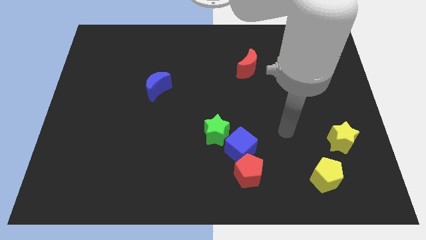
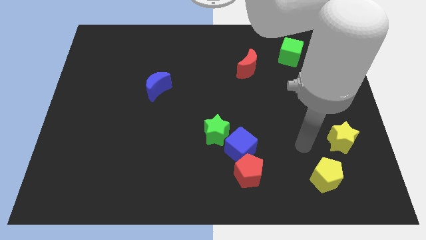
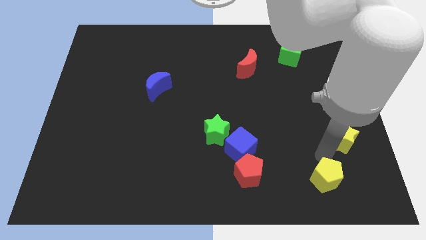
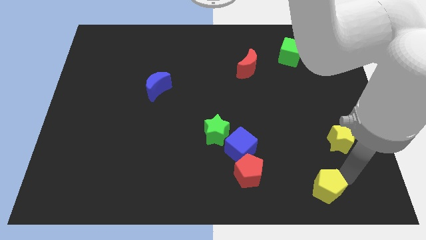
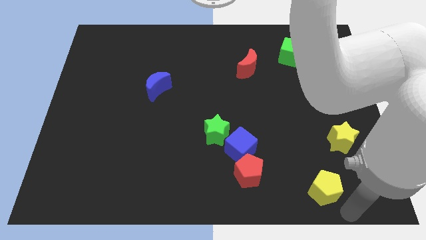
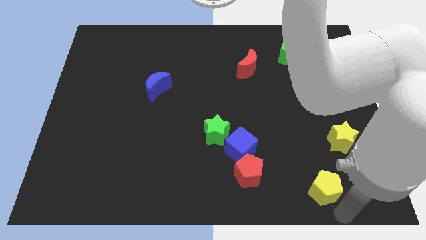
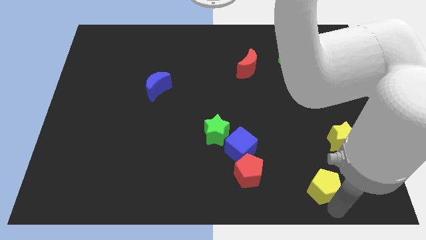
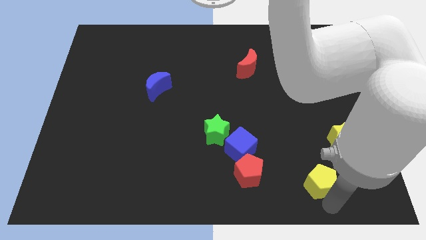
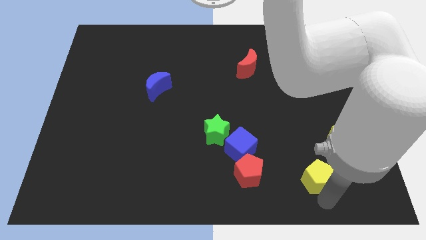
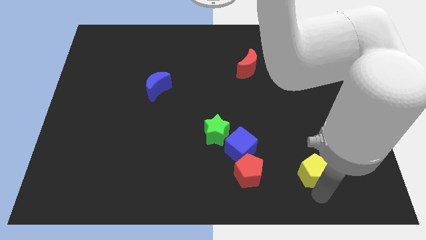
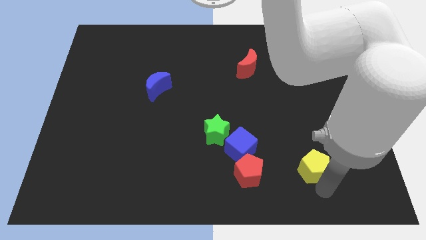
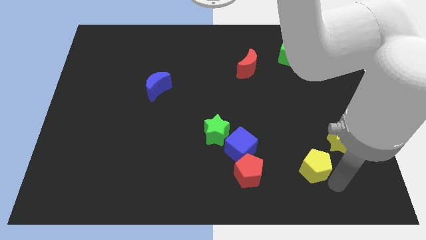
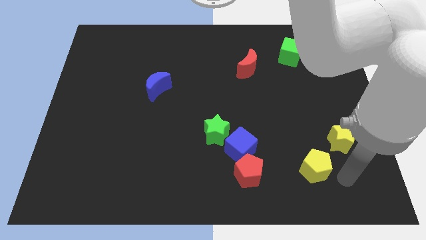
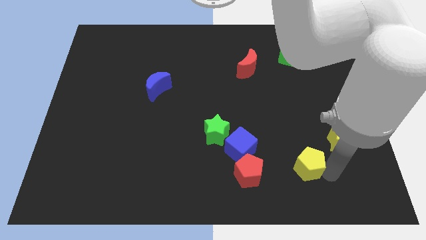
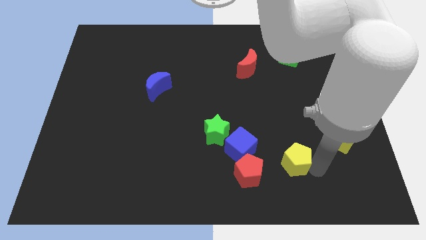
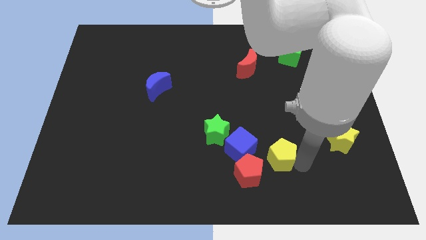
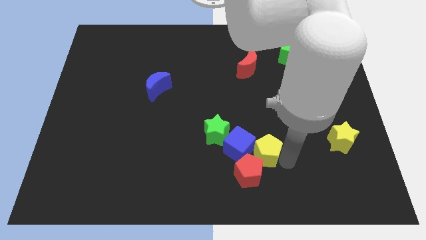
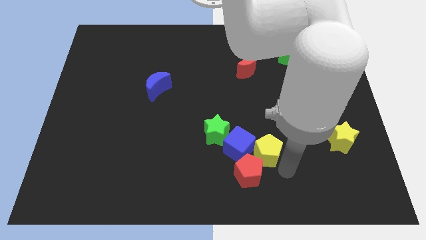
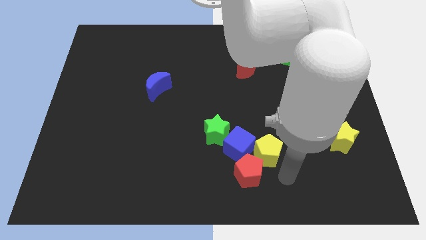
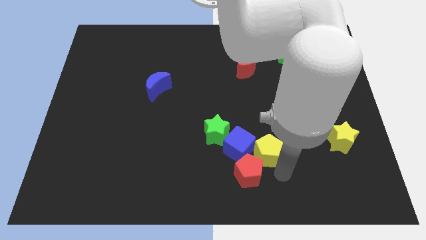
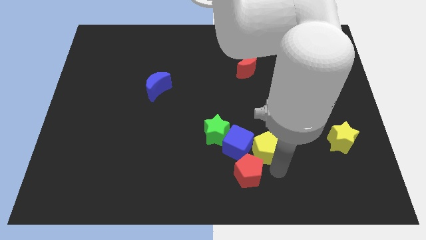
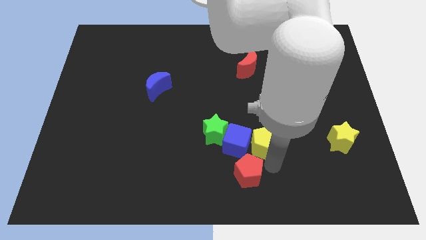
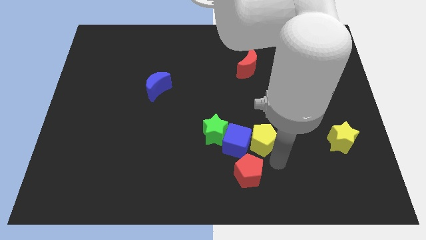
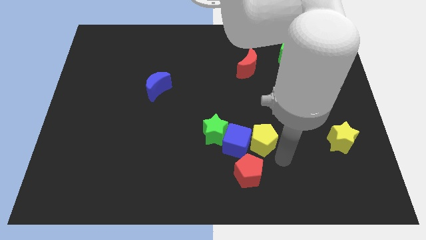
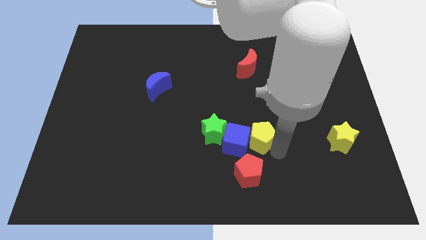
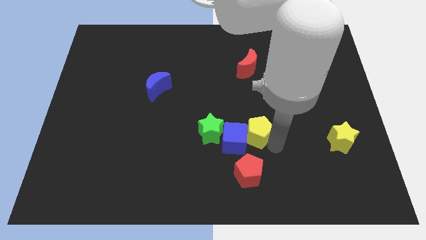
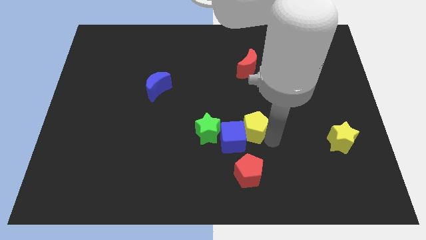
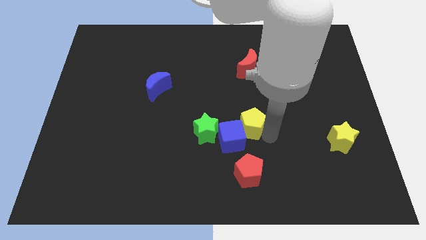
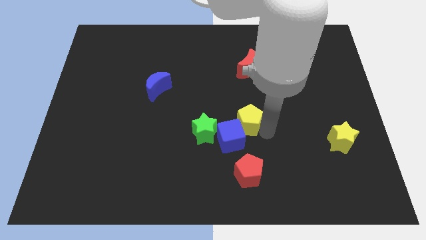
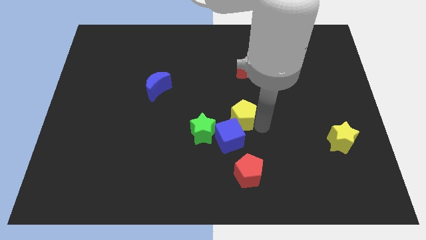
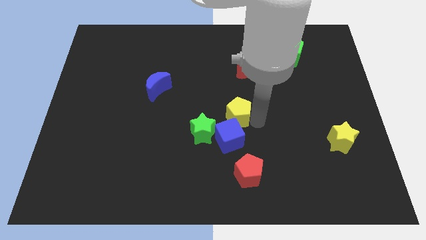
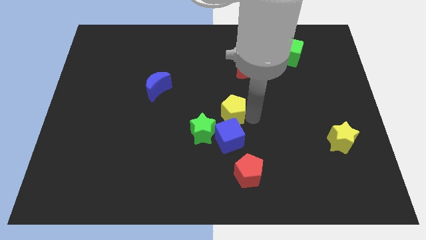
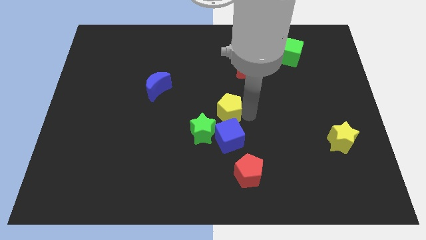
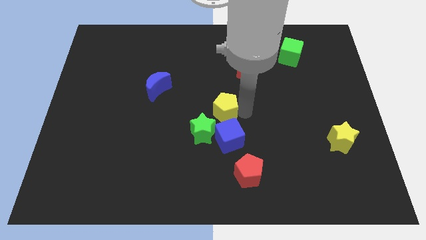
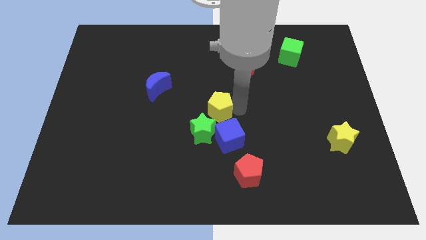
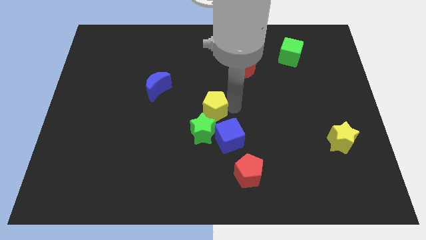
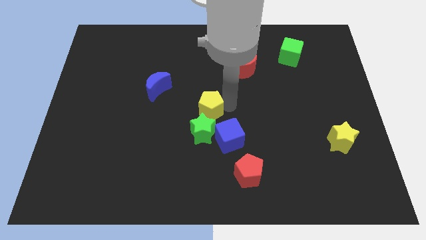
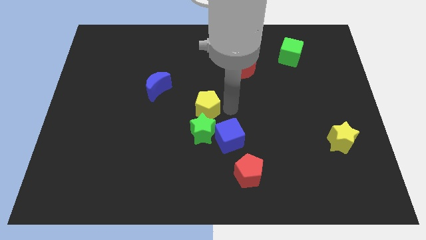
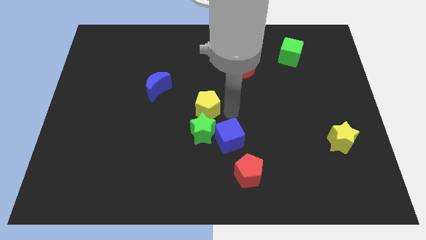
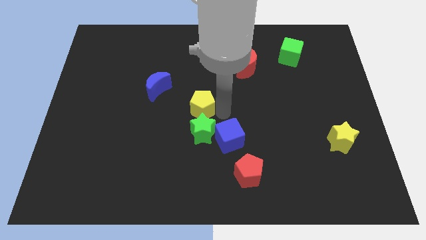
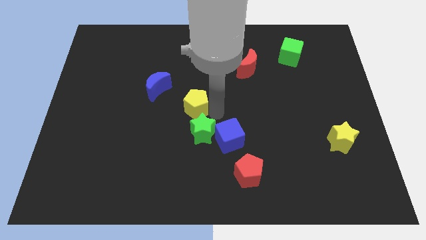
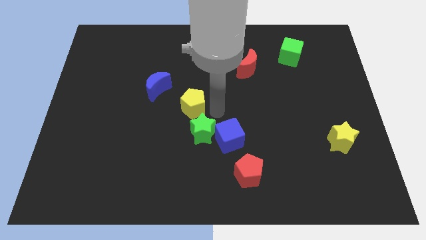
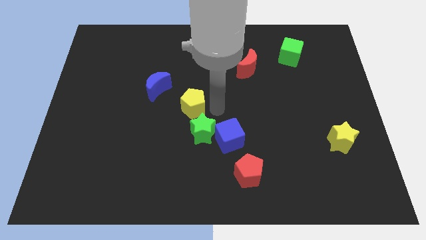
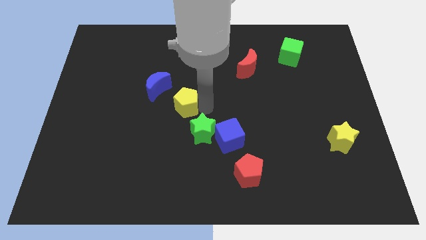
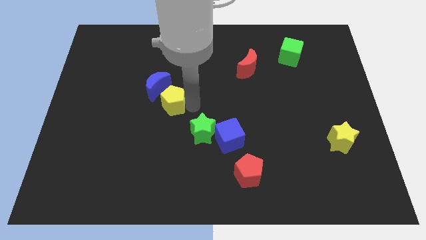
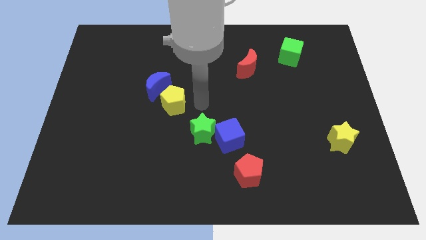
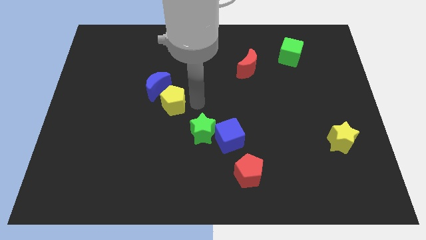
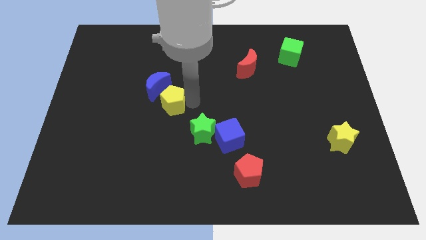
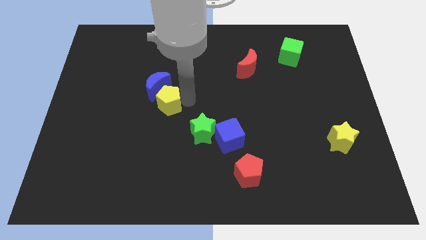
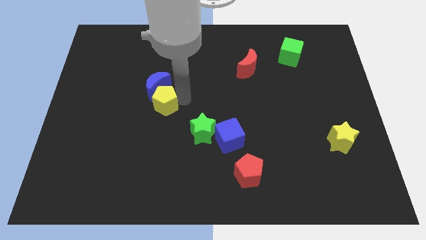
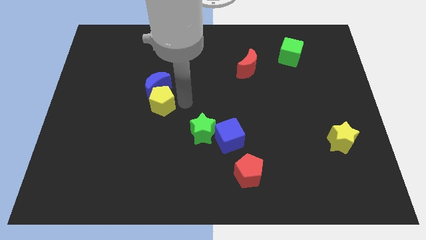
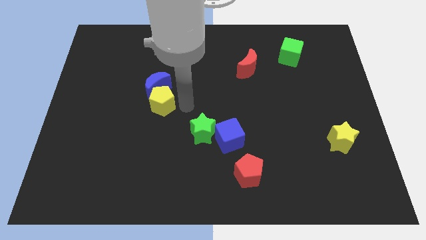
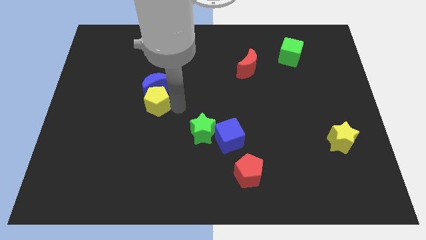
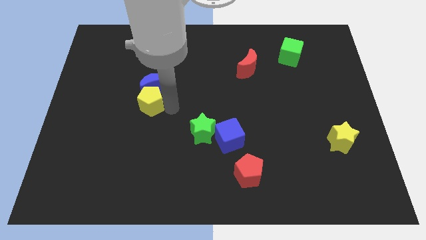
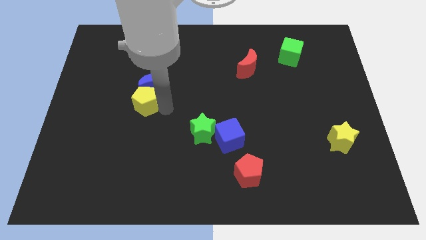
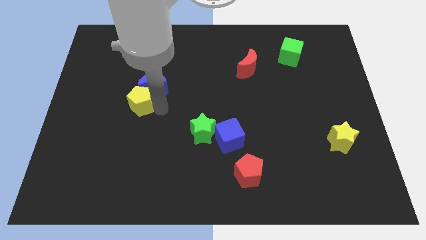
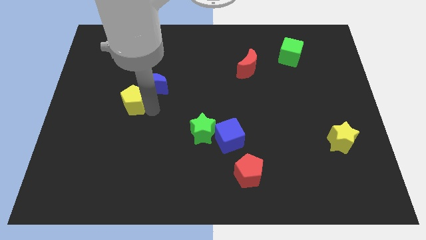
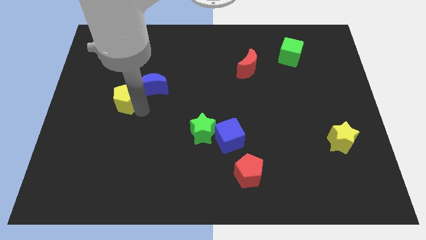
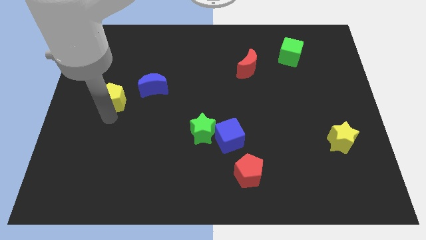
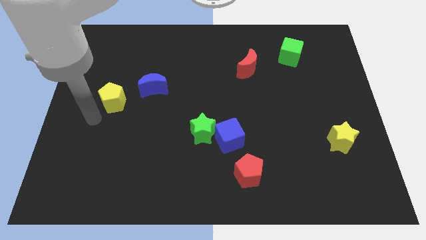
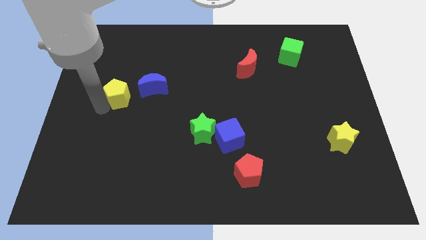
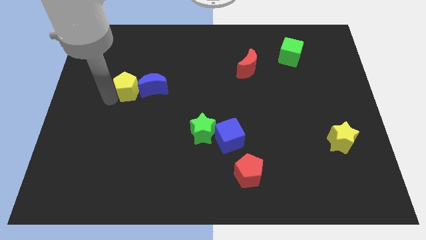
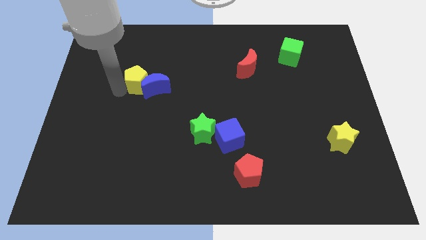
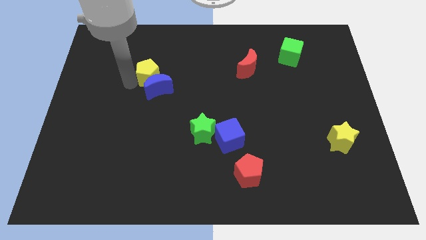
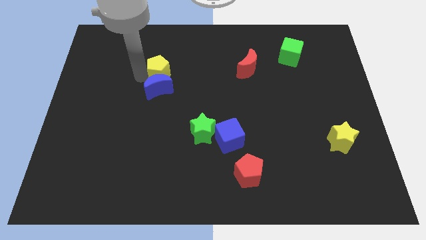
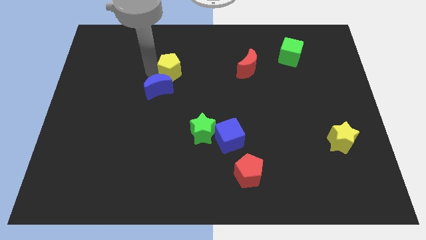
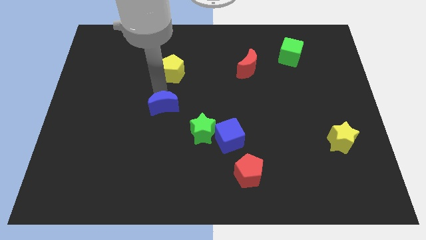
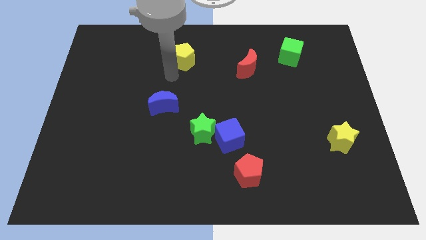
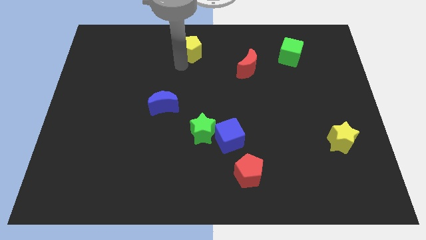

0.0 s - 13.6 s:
move the yellow pentagon to the top

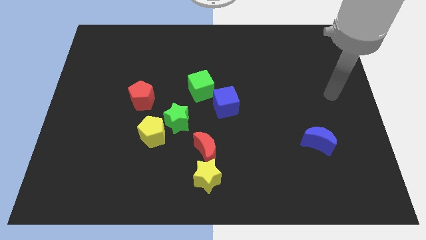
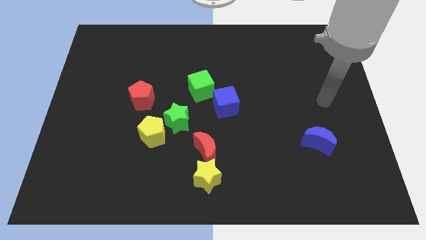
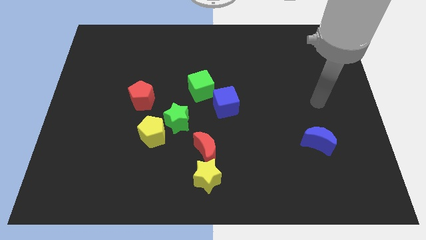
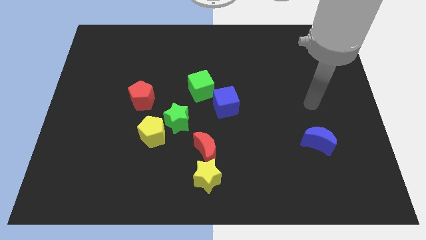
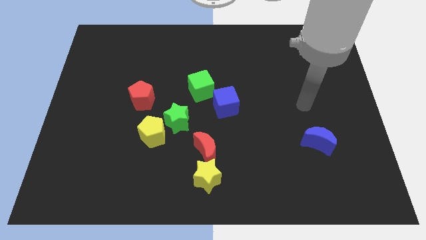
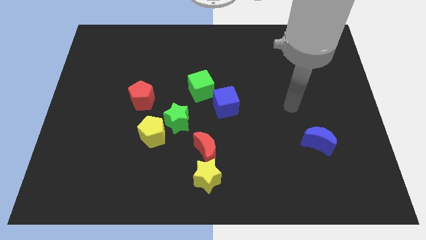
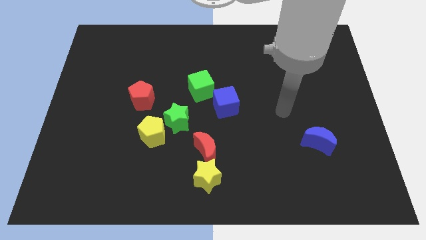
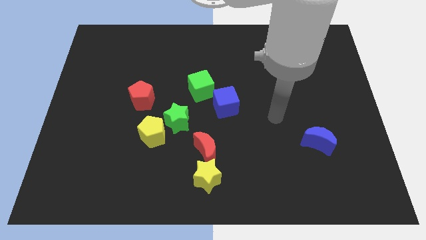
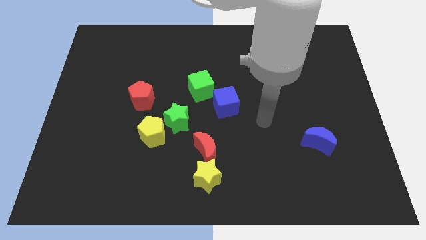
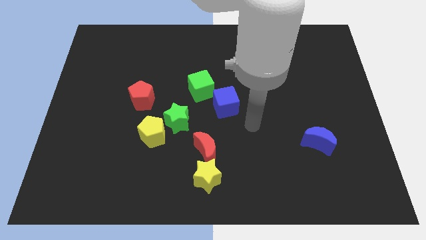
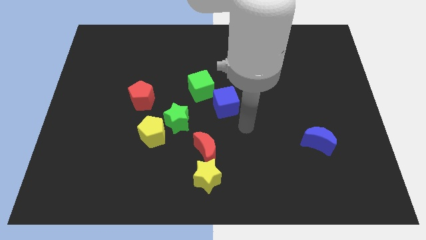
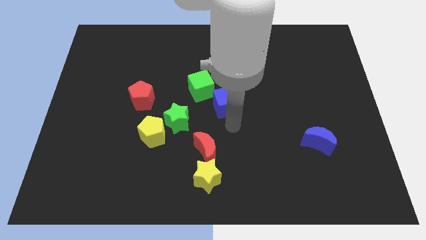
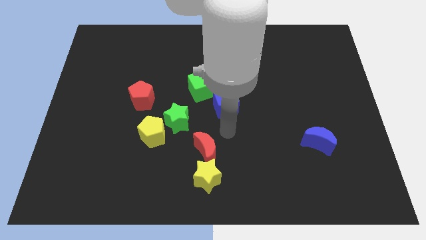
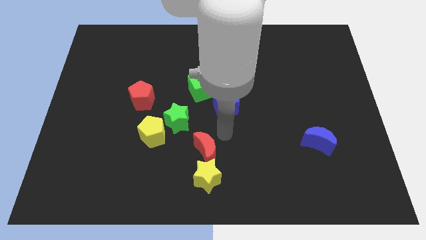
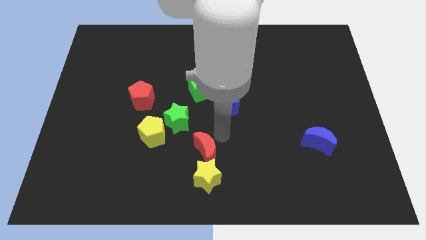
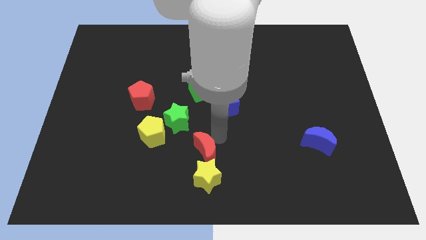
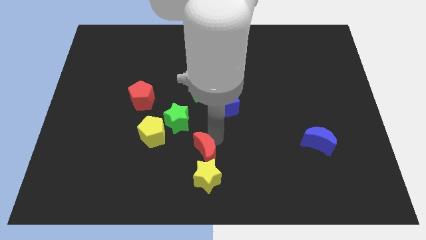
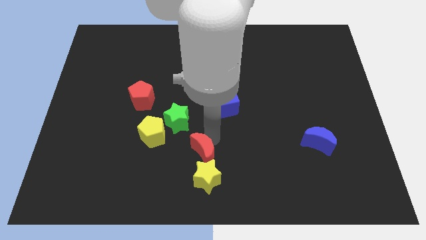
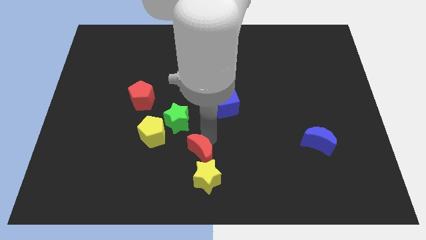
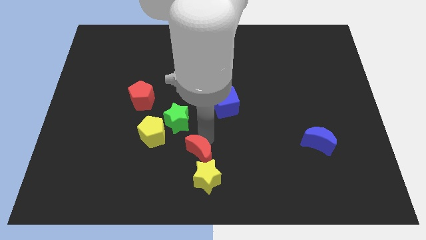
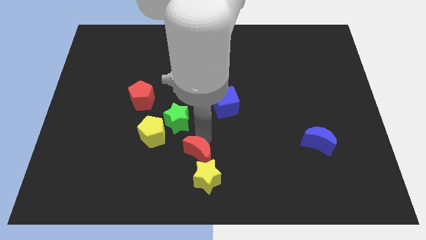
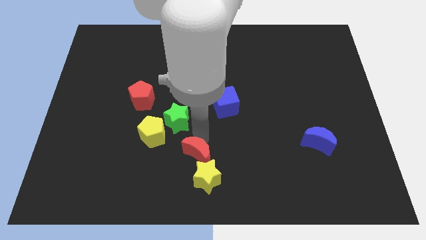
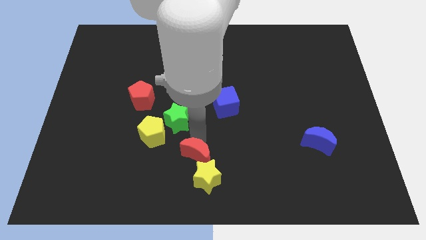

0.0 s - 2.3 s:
move the red moon to the bottom
